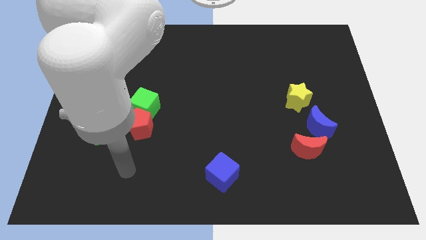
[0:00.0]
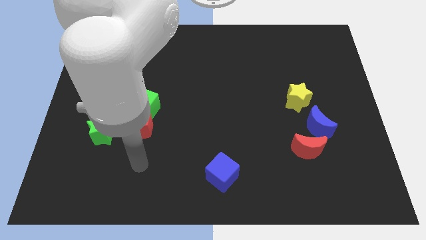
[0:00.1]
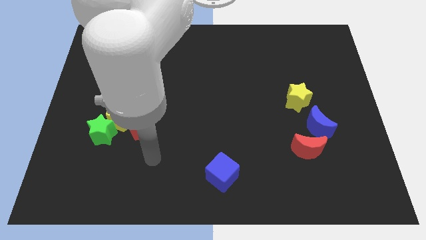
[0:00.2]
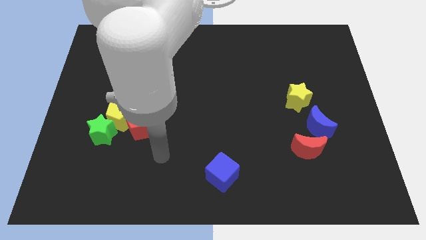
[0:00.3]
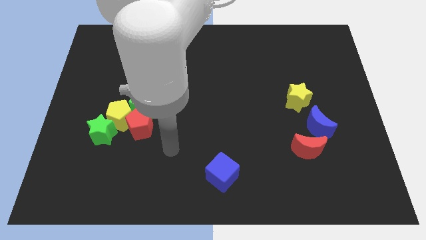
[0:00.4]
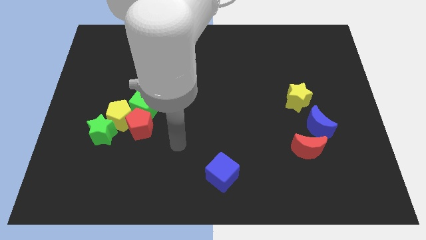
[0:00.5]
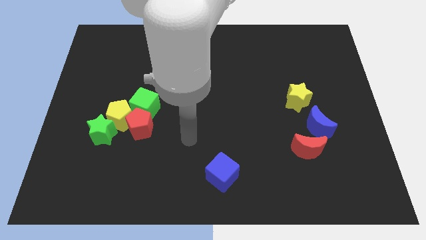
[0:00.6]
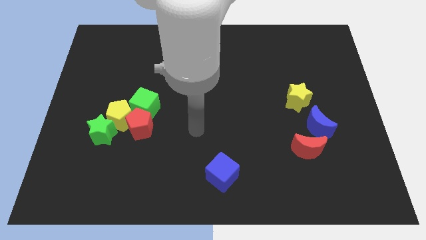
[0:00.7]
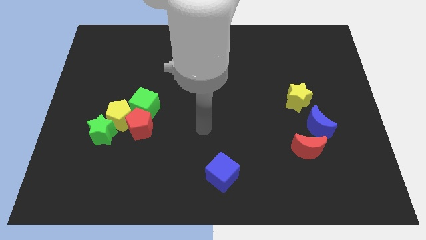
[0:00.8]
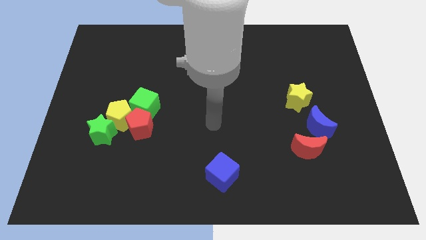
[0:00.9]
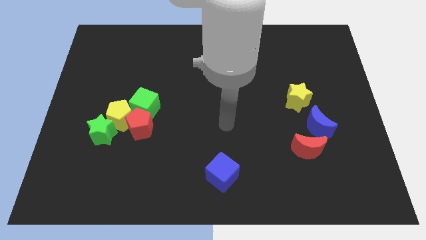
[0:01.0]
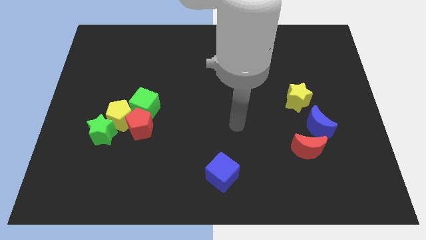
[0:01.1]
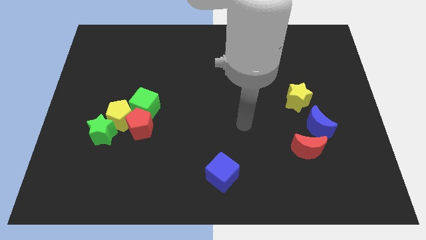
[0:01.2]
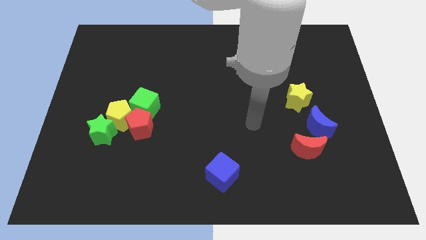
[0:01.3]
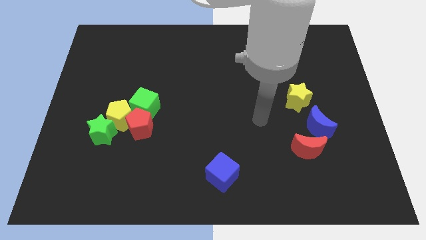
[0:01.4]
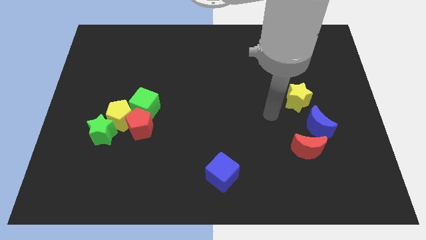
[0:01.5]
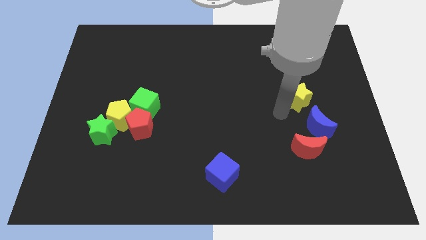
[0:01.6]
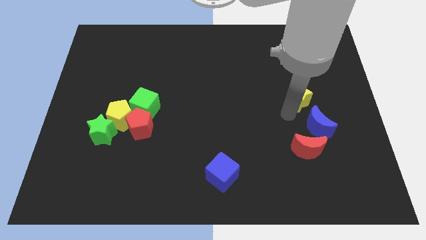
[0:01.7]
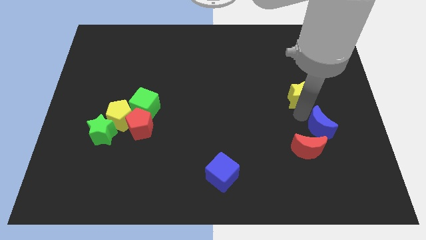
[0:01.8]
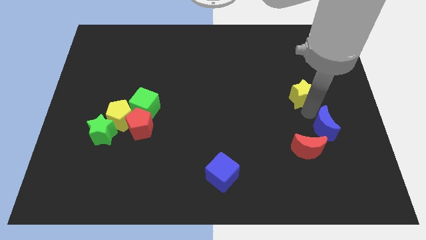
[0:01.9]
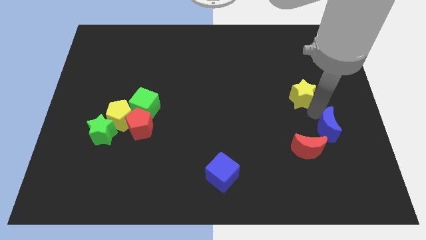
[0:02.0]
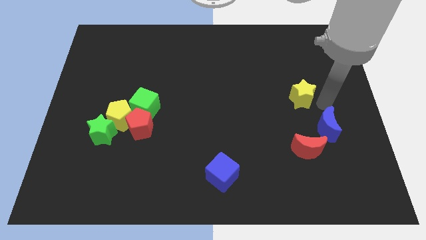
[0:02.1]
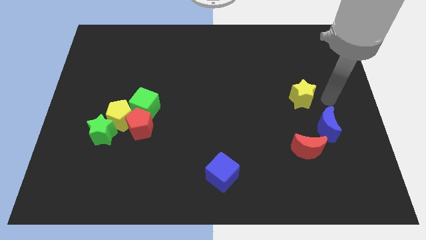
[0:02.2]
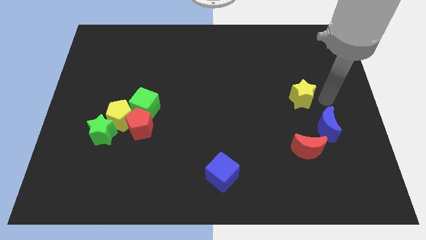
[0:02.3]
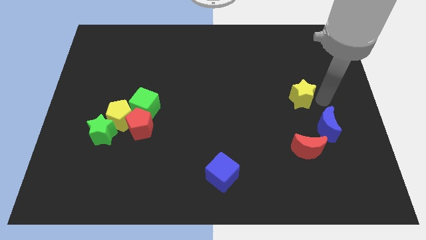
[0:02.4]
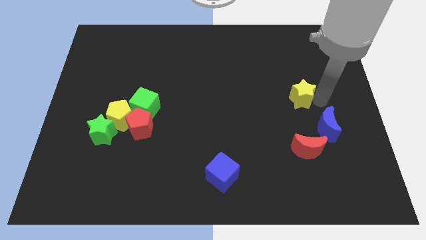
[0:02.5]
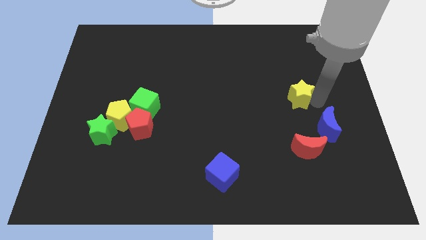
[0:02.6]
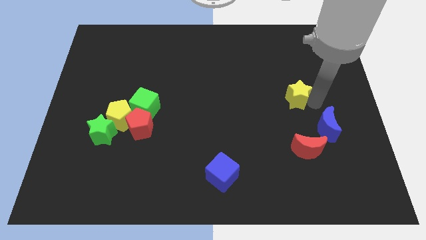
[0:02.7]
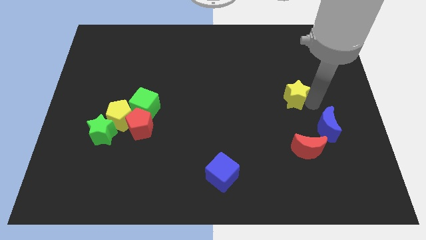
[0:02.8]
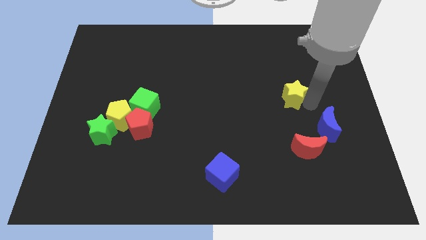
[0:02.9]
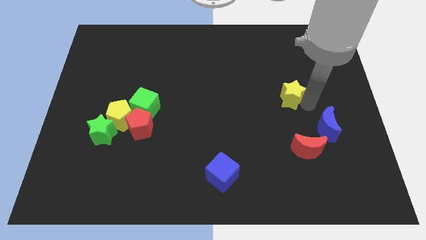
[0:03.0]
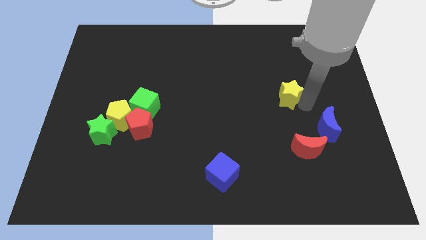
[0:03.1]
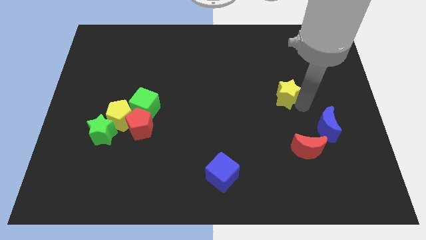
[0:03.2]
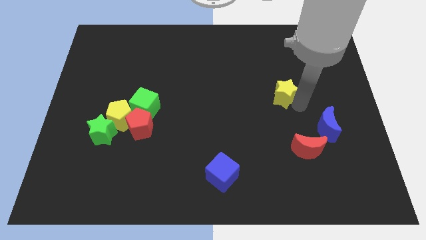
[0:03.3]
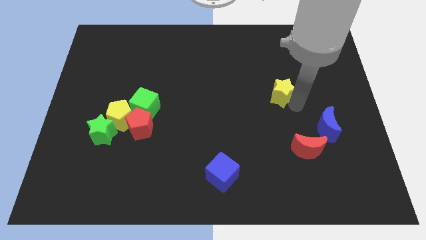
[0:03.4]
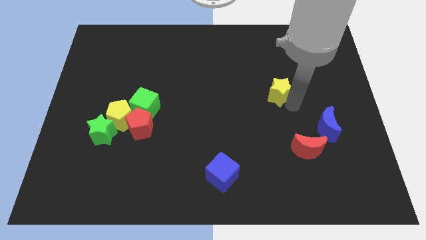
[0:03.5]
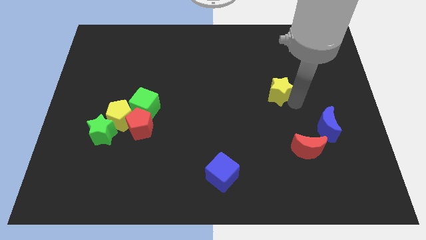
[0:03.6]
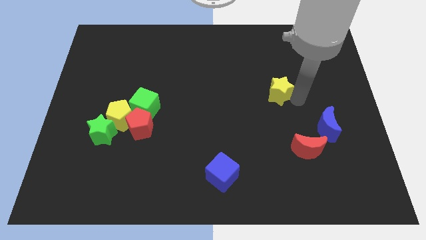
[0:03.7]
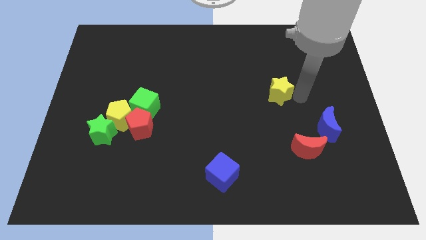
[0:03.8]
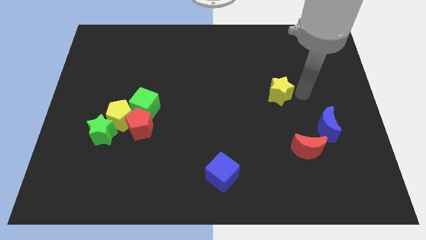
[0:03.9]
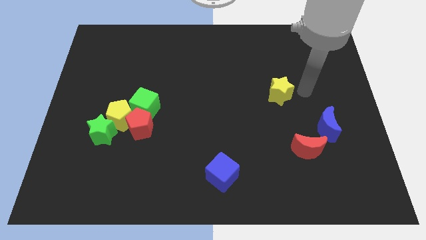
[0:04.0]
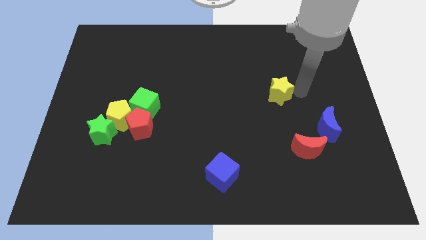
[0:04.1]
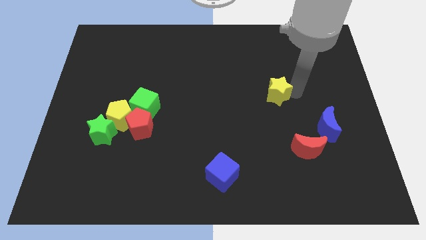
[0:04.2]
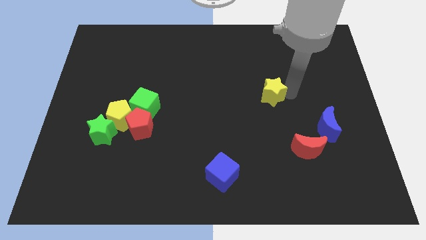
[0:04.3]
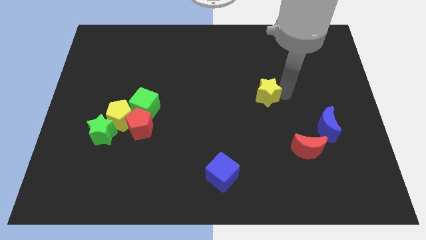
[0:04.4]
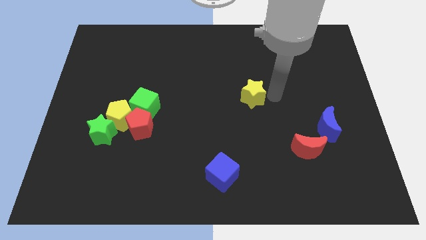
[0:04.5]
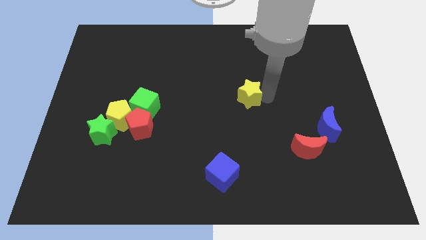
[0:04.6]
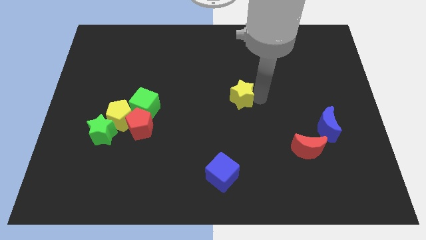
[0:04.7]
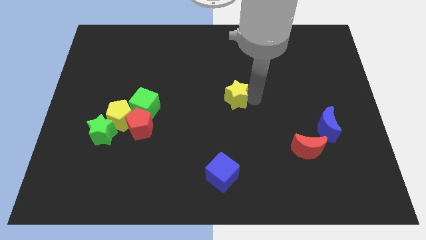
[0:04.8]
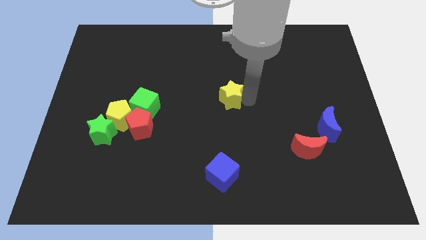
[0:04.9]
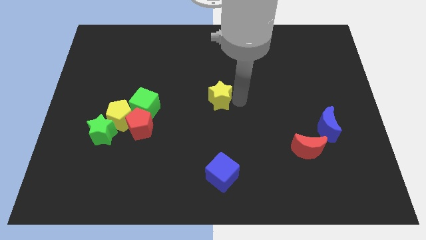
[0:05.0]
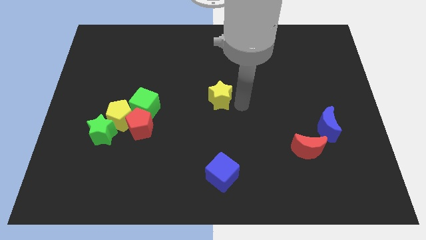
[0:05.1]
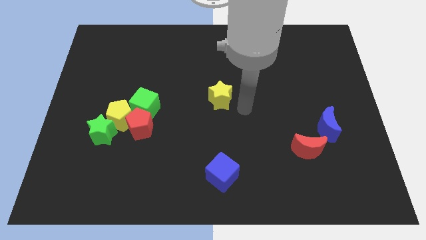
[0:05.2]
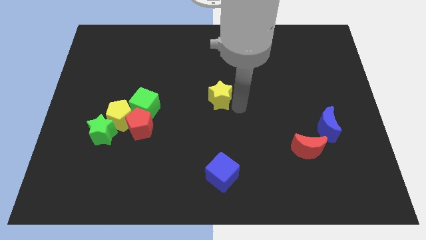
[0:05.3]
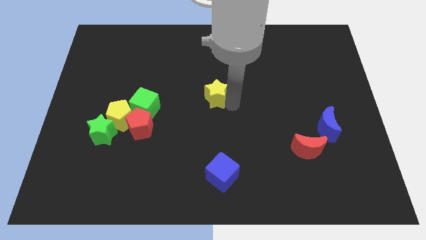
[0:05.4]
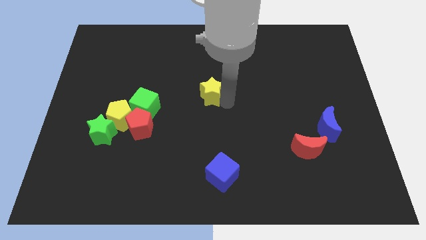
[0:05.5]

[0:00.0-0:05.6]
move the yellow star to the left

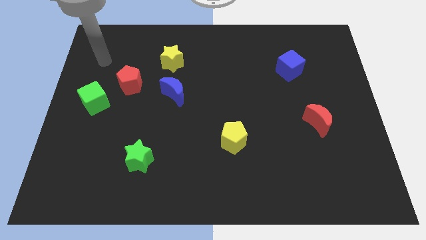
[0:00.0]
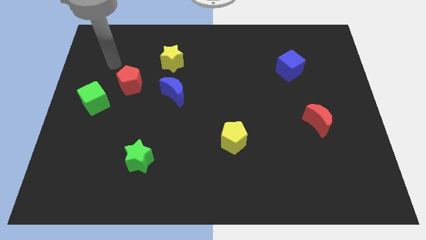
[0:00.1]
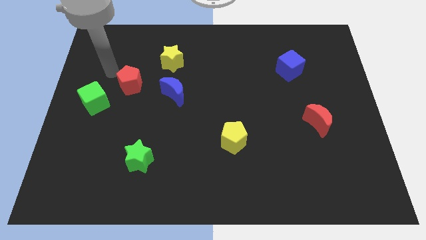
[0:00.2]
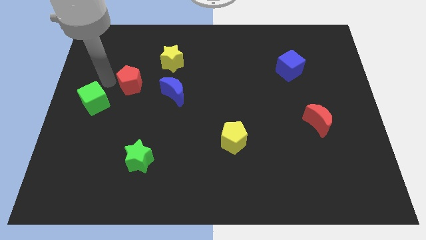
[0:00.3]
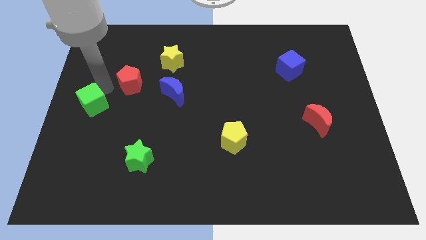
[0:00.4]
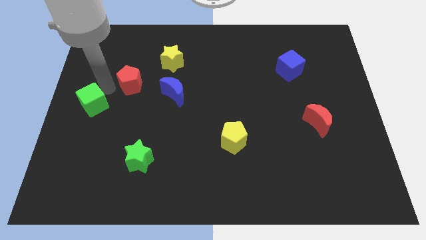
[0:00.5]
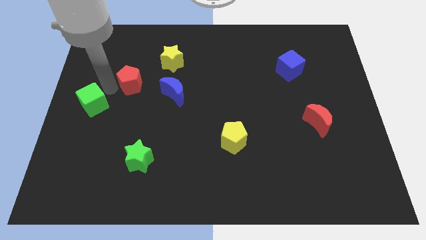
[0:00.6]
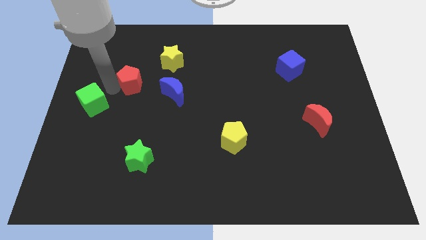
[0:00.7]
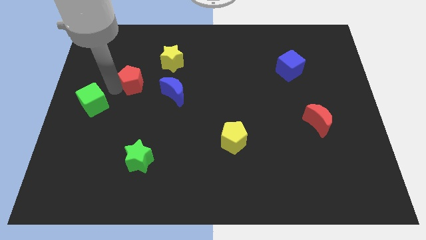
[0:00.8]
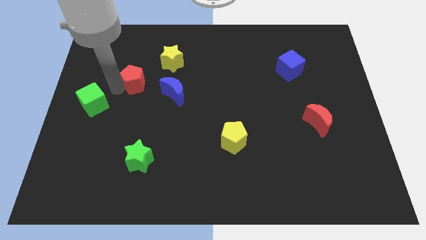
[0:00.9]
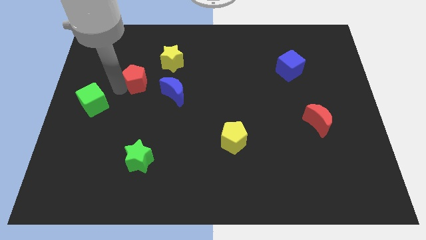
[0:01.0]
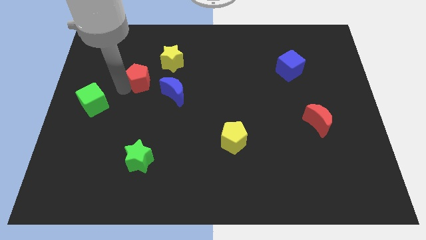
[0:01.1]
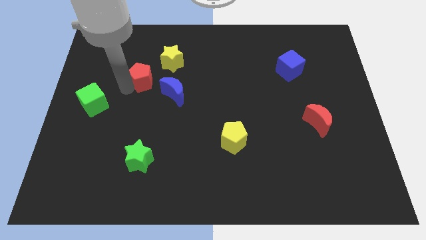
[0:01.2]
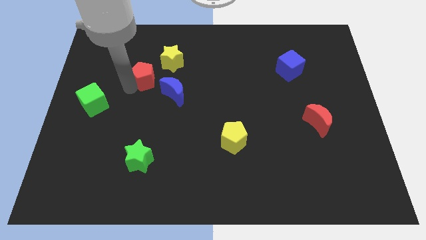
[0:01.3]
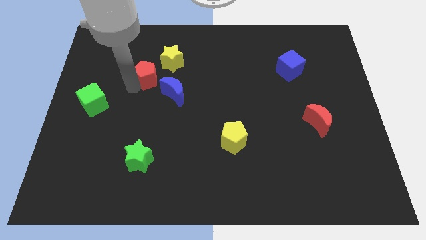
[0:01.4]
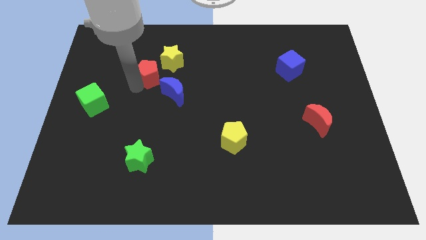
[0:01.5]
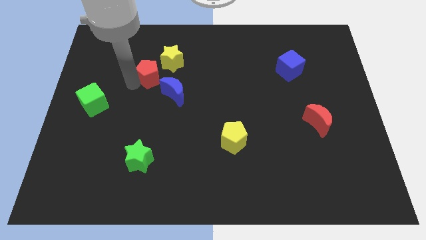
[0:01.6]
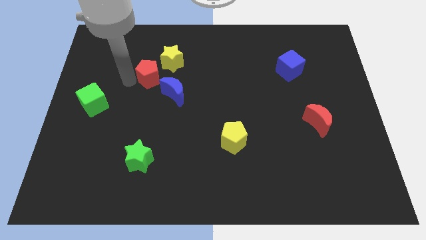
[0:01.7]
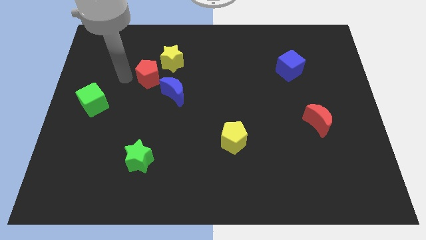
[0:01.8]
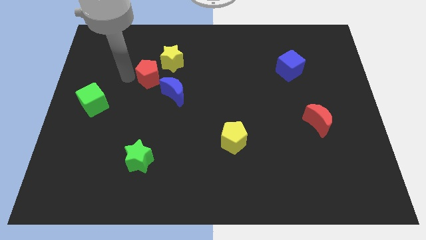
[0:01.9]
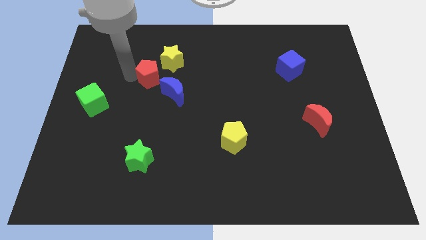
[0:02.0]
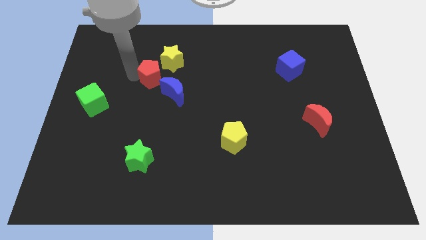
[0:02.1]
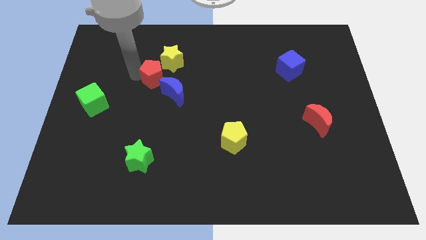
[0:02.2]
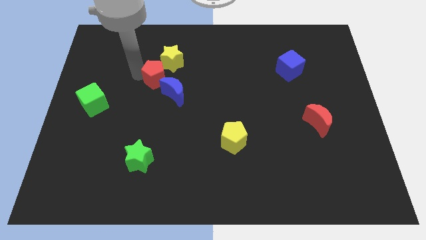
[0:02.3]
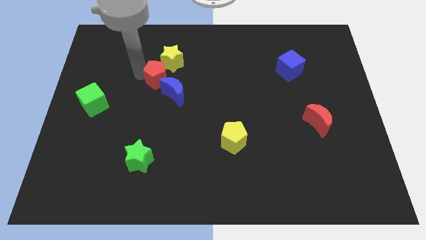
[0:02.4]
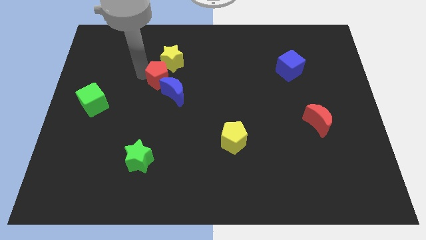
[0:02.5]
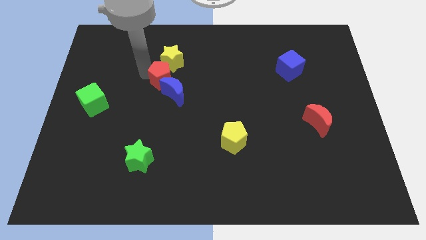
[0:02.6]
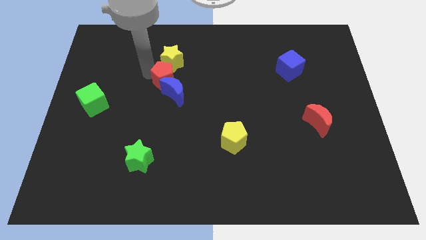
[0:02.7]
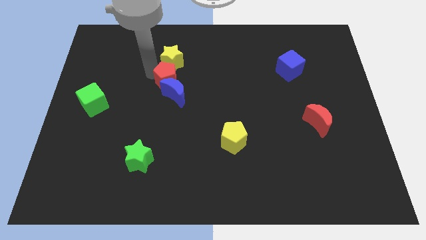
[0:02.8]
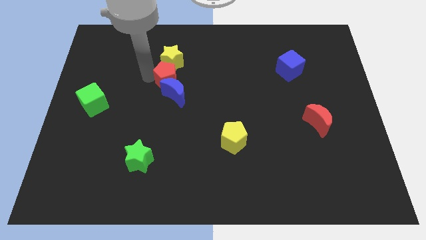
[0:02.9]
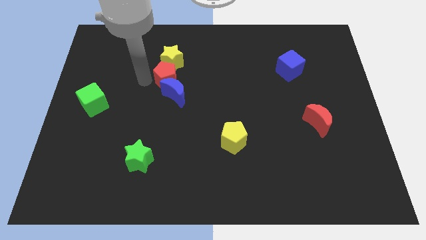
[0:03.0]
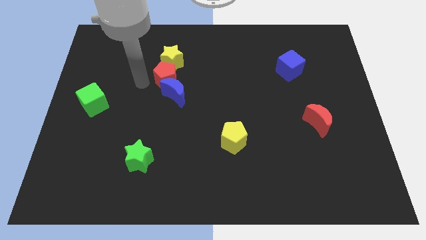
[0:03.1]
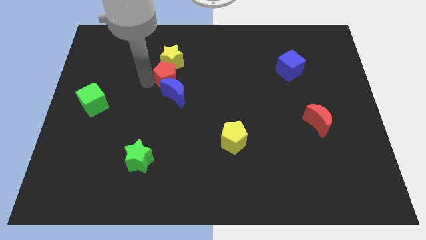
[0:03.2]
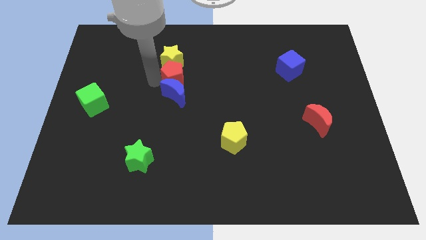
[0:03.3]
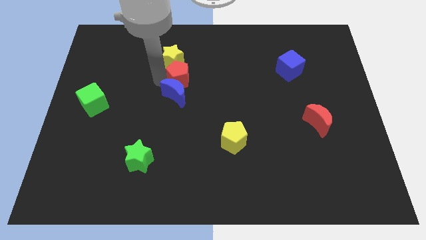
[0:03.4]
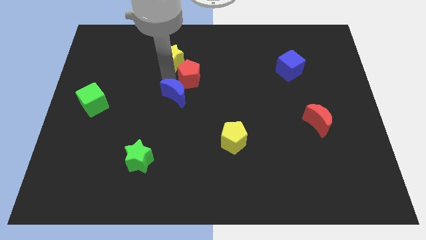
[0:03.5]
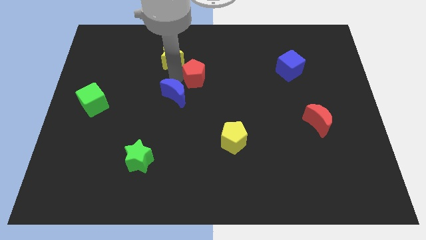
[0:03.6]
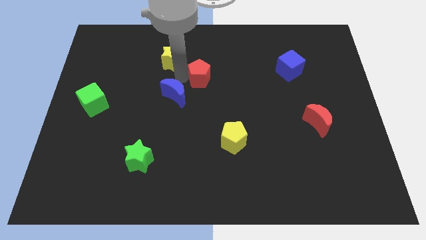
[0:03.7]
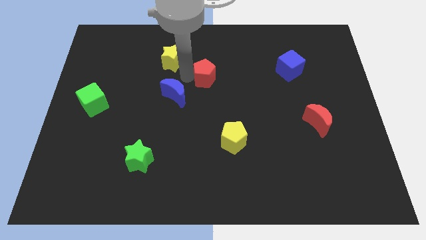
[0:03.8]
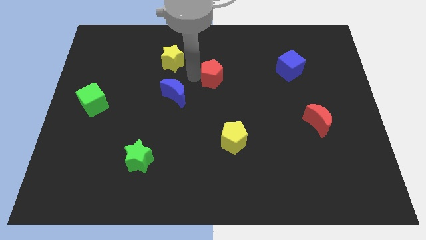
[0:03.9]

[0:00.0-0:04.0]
slide the red pentagon right
